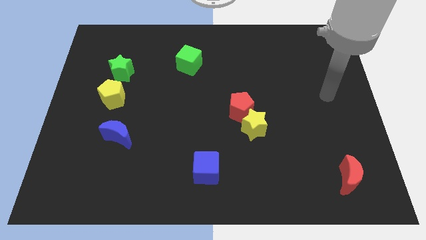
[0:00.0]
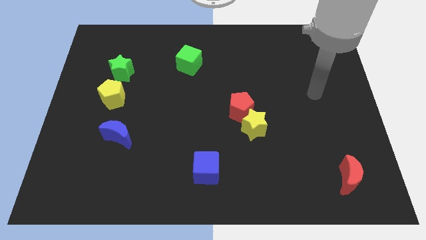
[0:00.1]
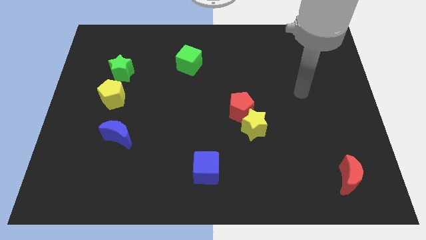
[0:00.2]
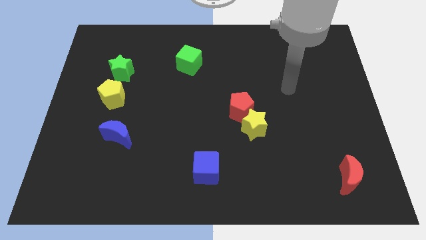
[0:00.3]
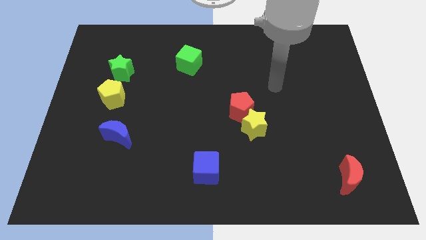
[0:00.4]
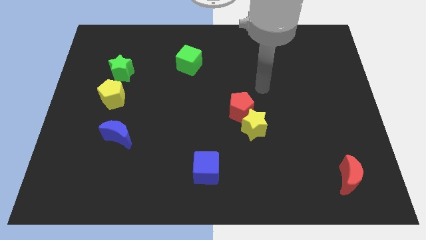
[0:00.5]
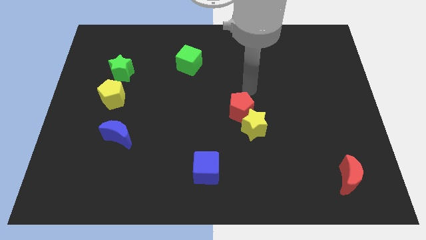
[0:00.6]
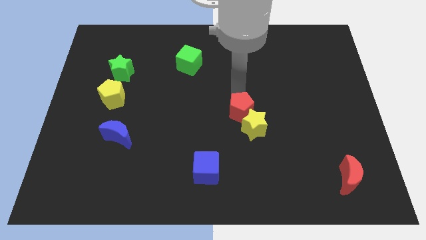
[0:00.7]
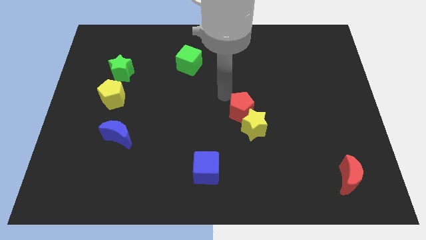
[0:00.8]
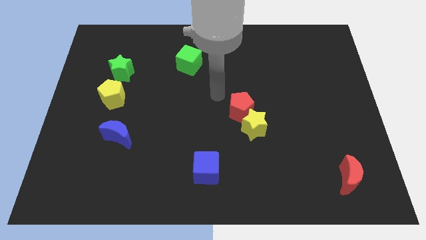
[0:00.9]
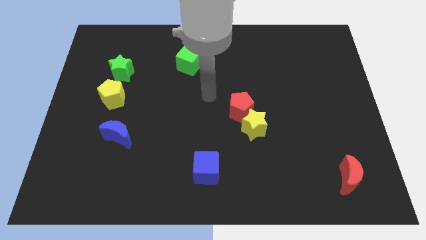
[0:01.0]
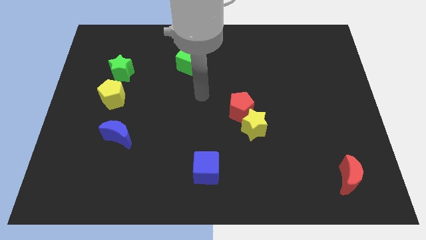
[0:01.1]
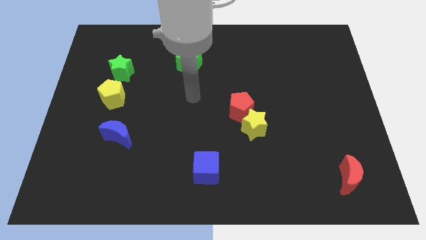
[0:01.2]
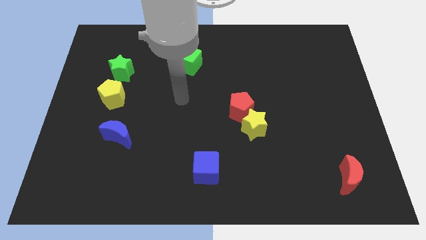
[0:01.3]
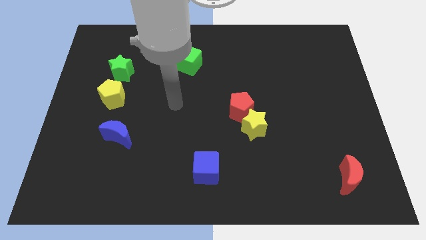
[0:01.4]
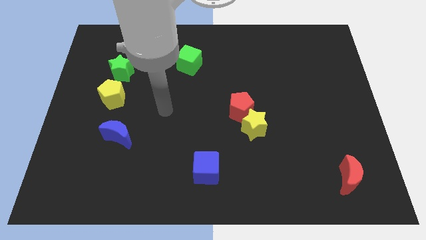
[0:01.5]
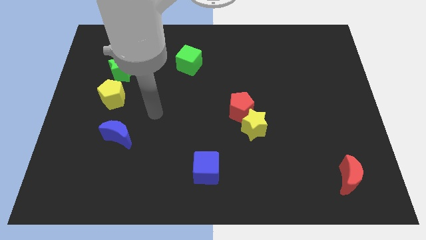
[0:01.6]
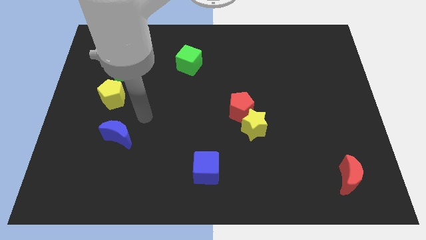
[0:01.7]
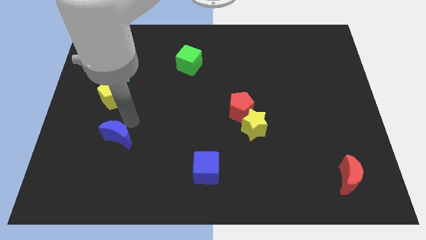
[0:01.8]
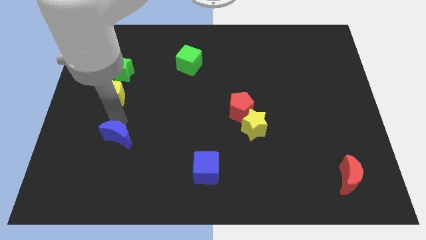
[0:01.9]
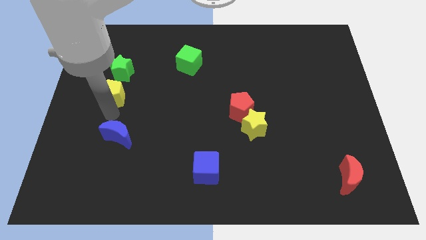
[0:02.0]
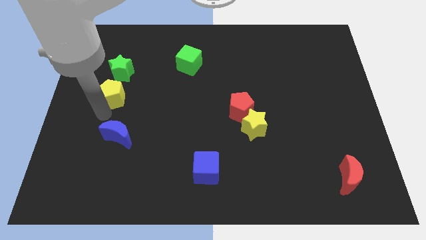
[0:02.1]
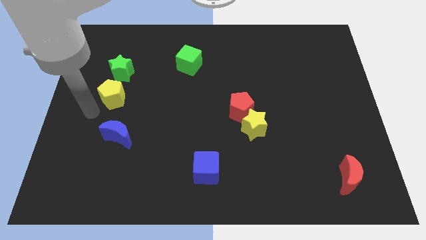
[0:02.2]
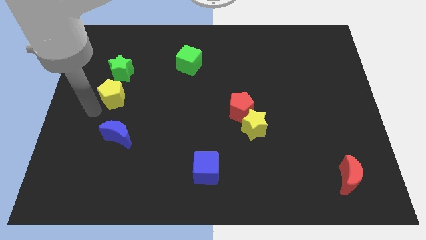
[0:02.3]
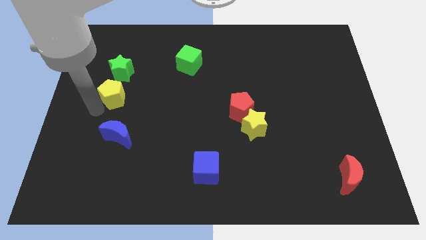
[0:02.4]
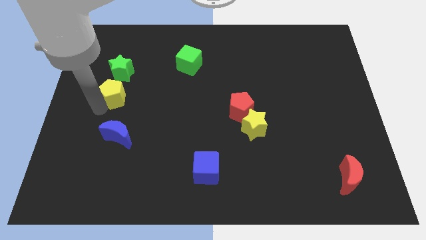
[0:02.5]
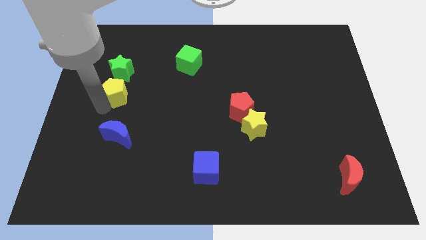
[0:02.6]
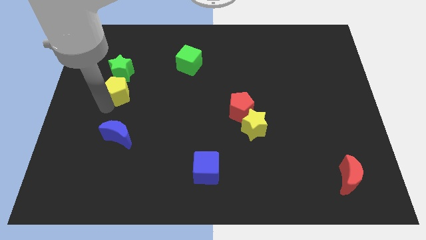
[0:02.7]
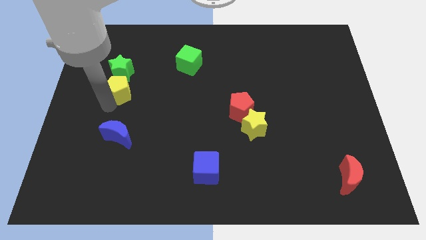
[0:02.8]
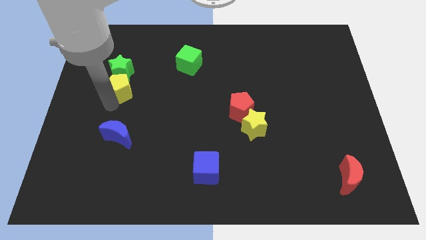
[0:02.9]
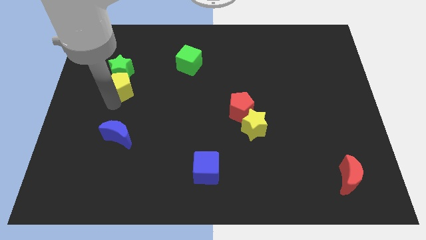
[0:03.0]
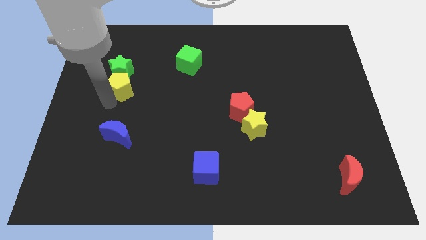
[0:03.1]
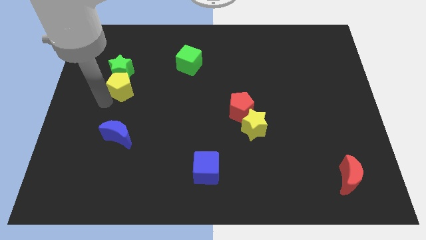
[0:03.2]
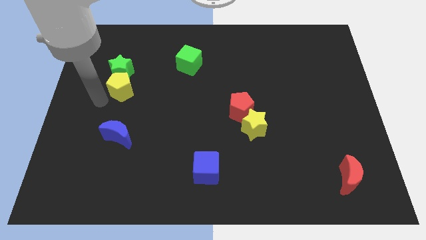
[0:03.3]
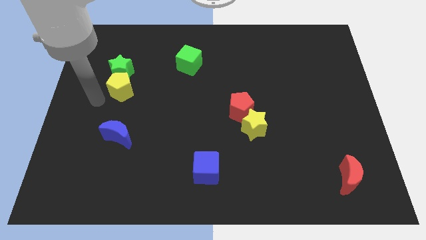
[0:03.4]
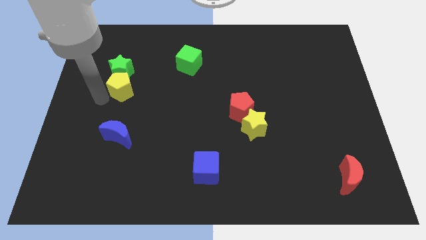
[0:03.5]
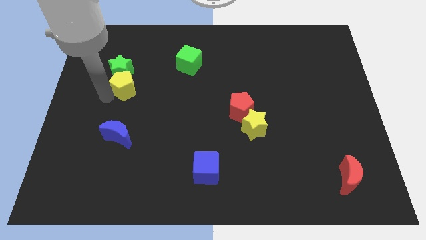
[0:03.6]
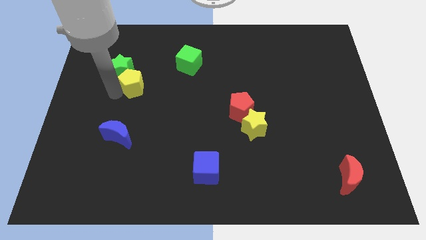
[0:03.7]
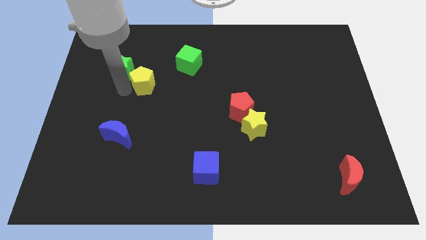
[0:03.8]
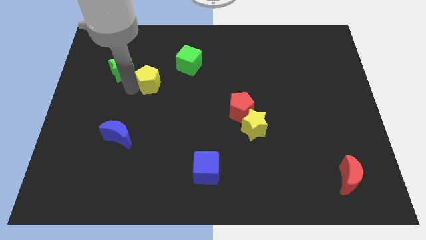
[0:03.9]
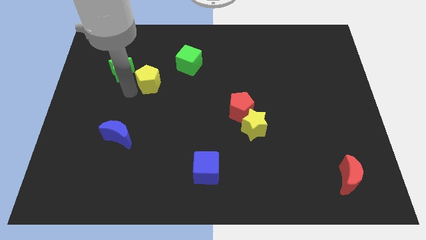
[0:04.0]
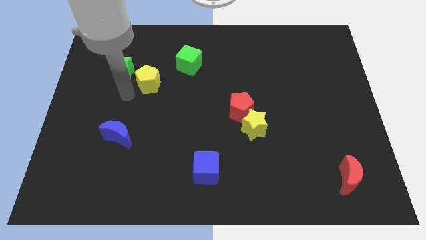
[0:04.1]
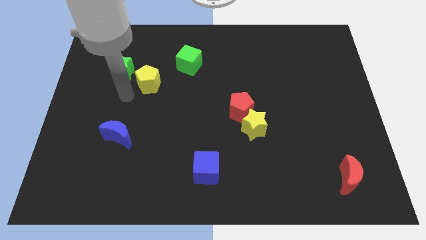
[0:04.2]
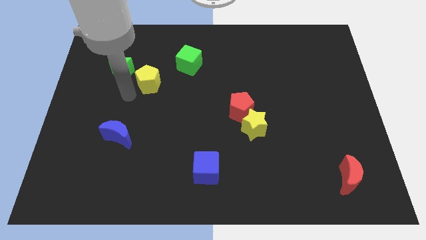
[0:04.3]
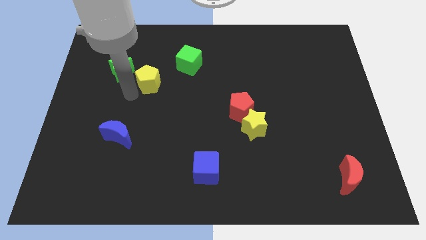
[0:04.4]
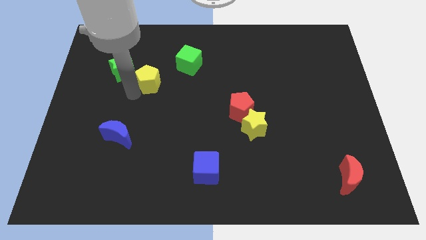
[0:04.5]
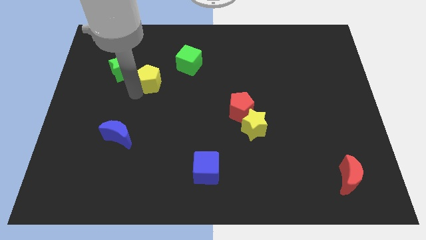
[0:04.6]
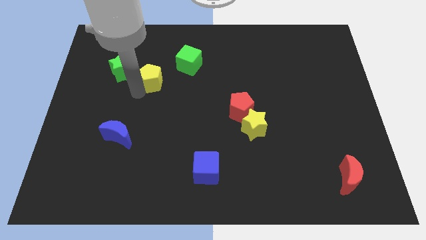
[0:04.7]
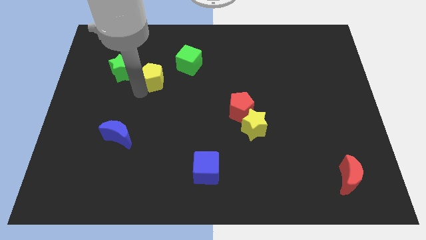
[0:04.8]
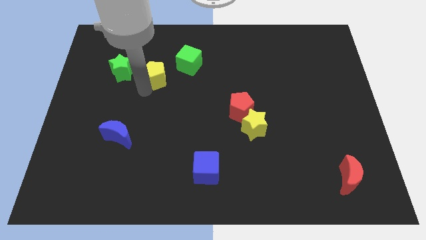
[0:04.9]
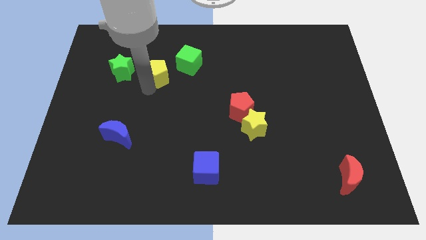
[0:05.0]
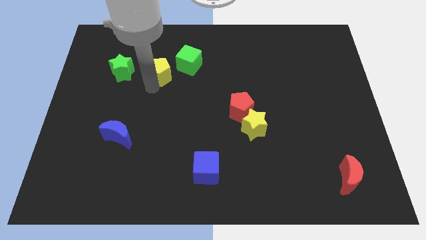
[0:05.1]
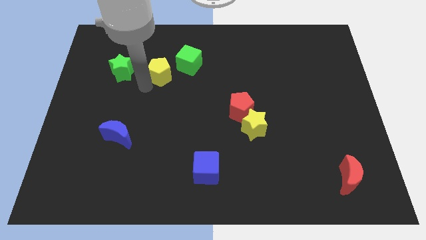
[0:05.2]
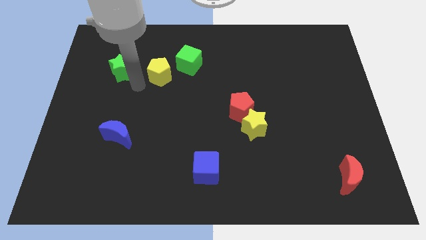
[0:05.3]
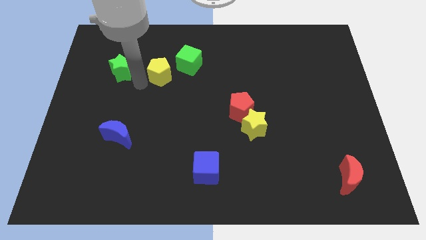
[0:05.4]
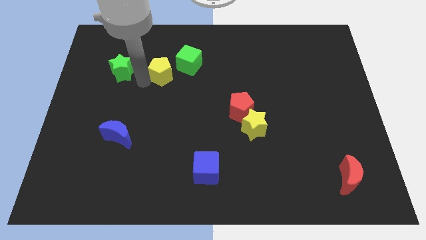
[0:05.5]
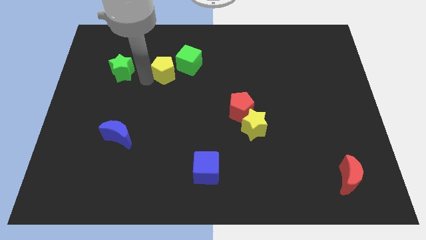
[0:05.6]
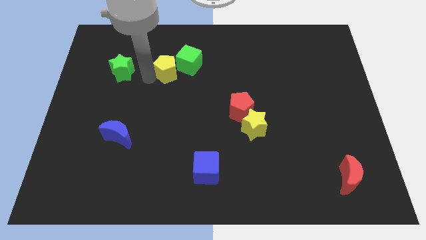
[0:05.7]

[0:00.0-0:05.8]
move the yellow pentagon close to the green cube

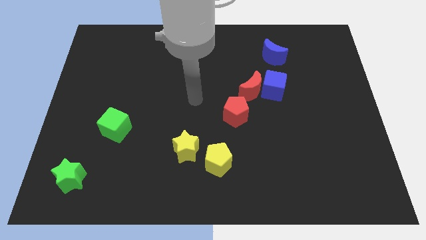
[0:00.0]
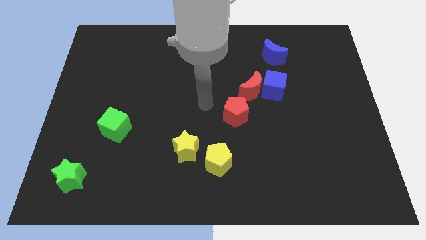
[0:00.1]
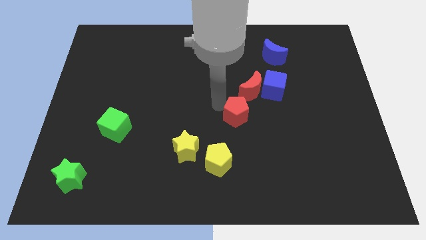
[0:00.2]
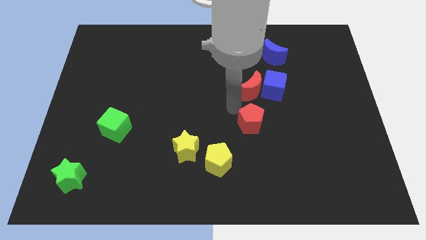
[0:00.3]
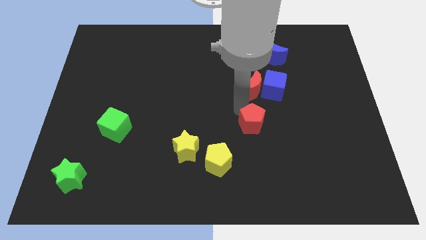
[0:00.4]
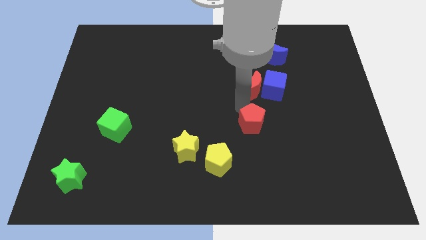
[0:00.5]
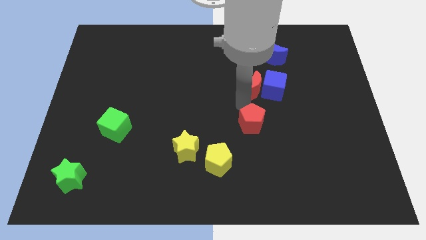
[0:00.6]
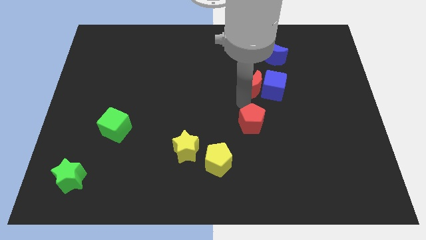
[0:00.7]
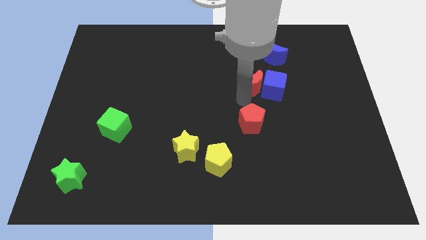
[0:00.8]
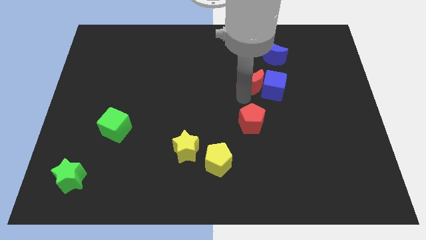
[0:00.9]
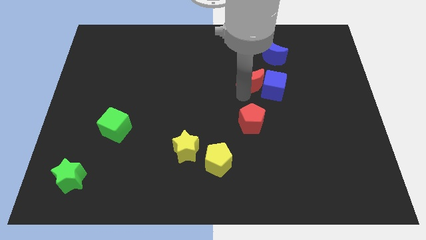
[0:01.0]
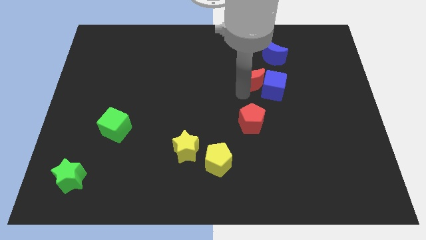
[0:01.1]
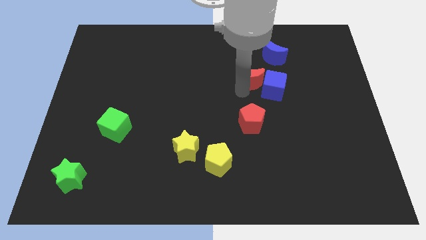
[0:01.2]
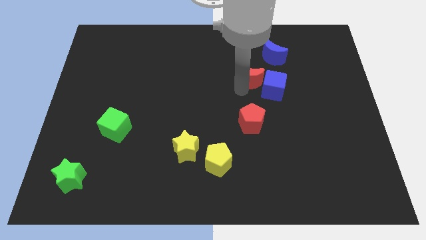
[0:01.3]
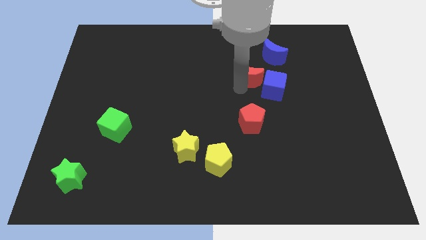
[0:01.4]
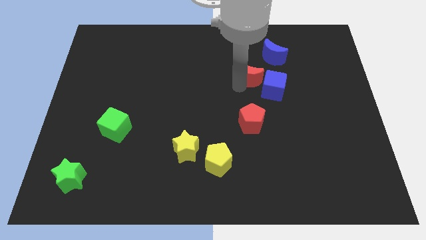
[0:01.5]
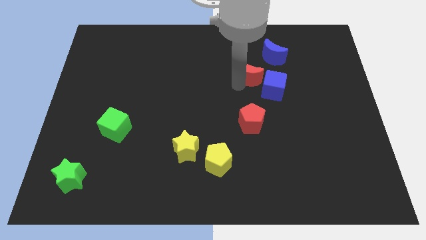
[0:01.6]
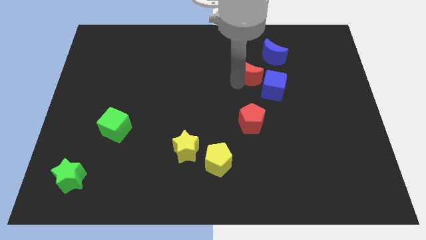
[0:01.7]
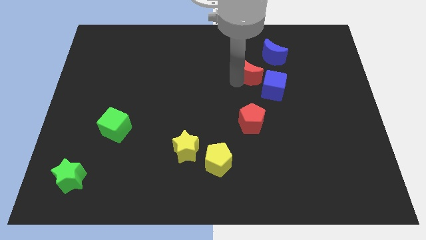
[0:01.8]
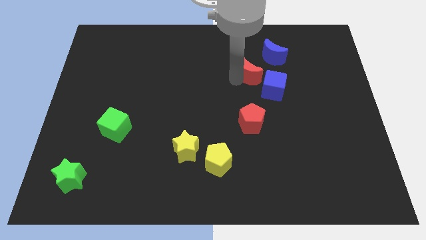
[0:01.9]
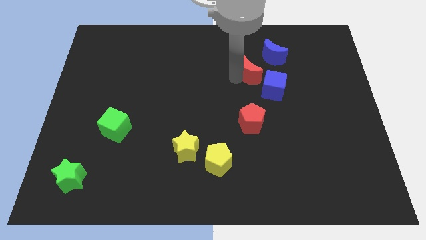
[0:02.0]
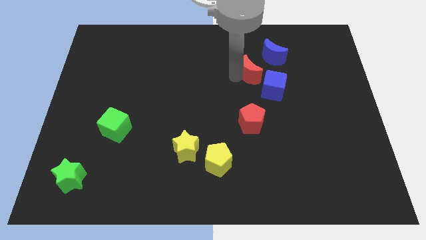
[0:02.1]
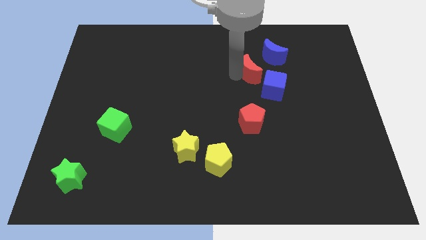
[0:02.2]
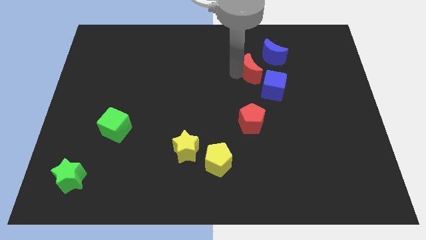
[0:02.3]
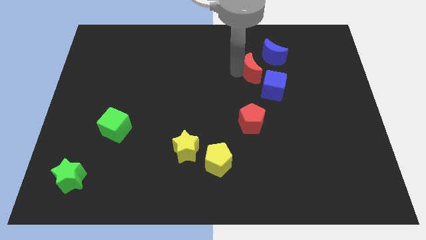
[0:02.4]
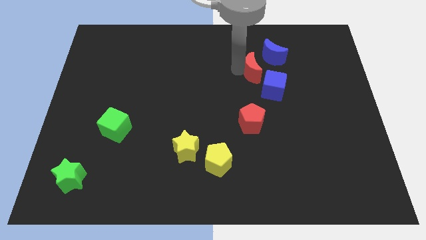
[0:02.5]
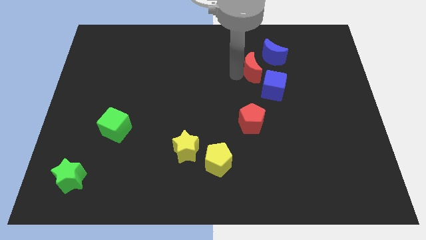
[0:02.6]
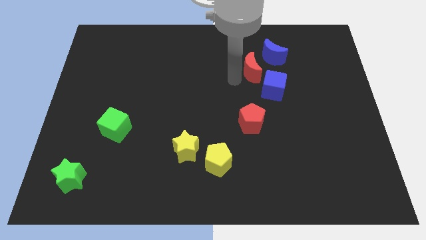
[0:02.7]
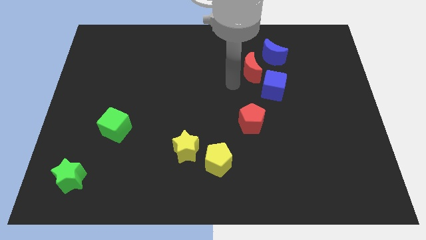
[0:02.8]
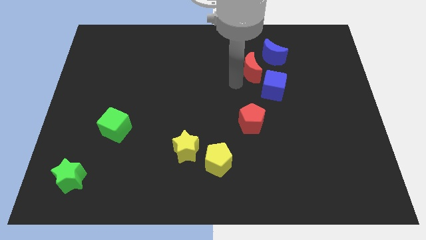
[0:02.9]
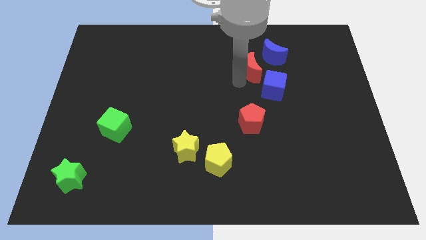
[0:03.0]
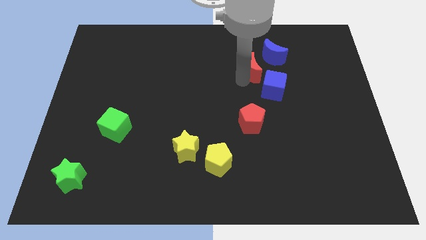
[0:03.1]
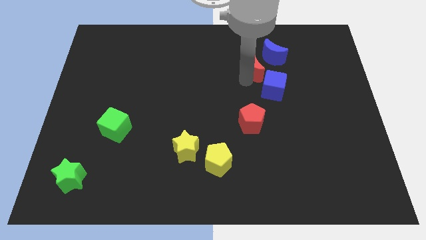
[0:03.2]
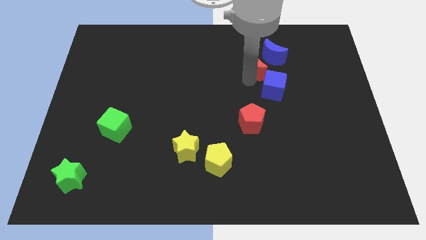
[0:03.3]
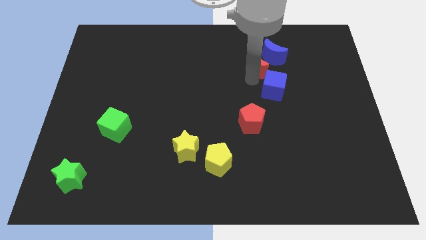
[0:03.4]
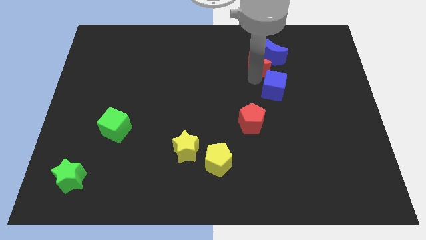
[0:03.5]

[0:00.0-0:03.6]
move the red moon to the blue moon
